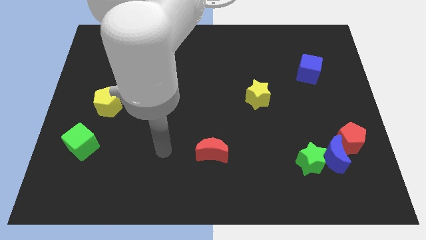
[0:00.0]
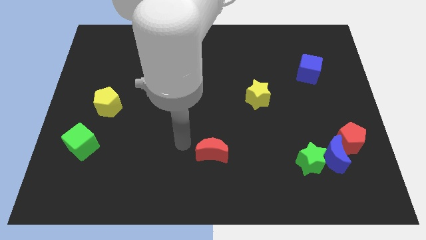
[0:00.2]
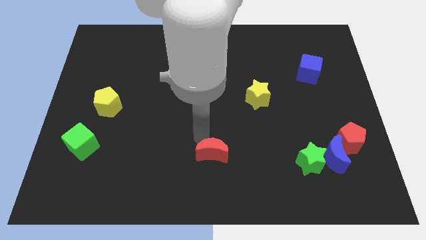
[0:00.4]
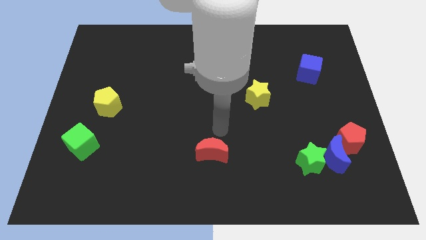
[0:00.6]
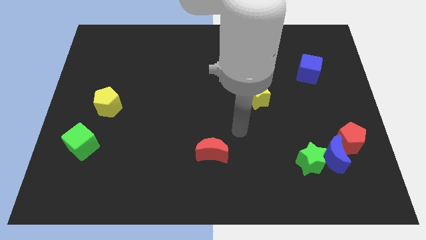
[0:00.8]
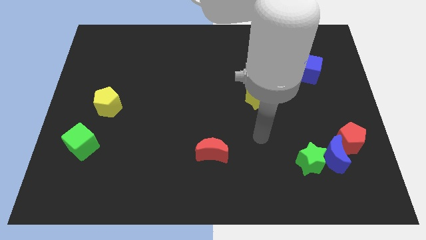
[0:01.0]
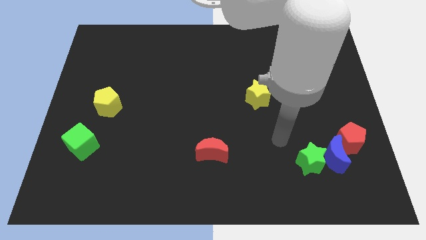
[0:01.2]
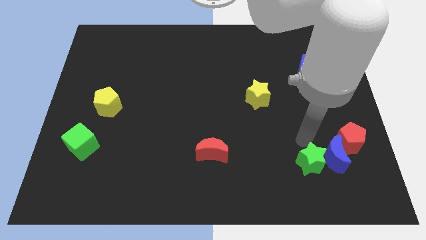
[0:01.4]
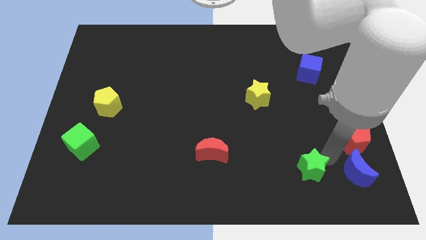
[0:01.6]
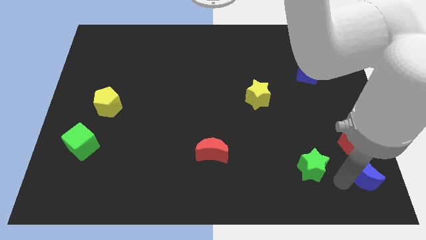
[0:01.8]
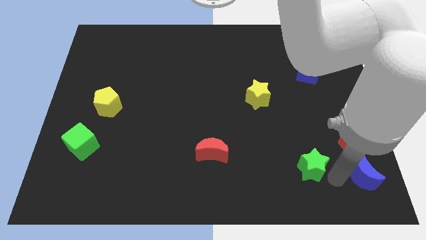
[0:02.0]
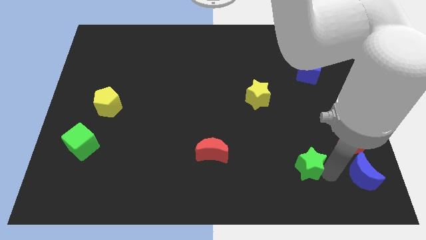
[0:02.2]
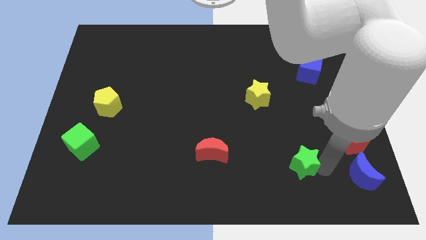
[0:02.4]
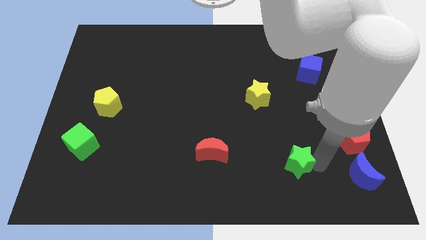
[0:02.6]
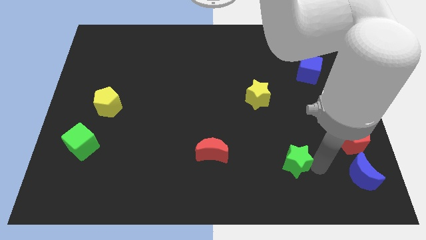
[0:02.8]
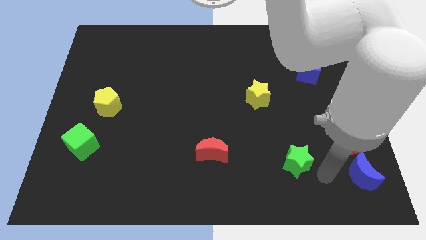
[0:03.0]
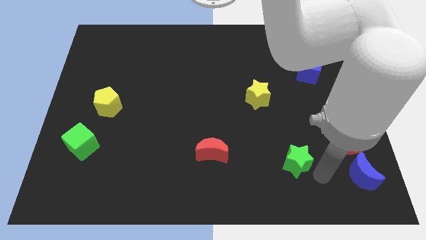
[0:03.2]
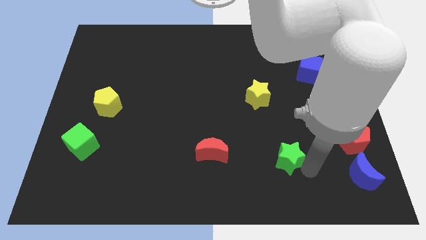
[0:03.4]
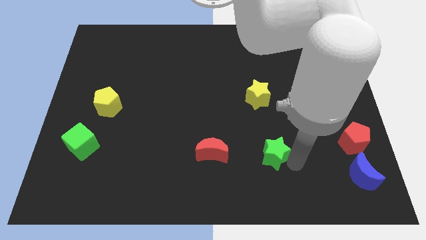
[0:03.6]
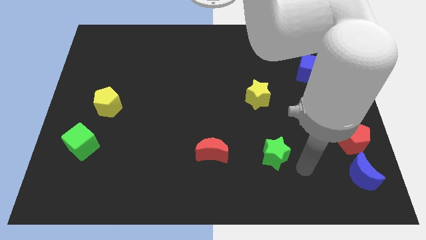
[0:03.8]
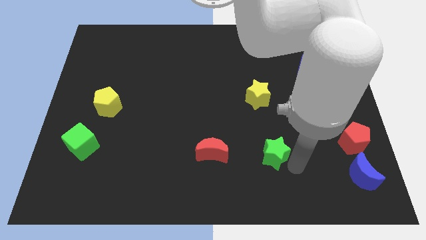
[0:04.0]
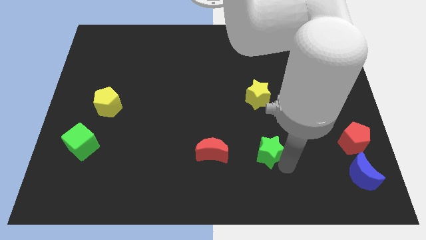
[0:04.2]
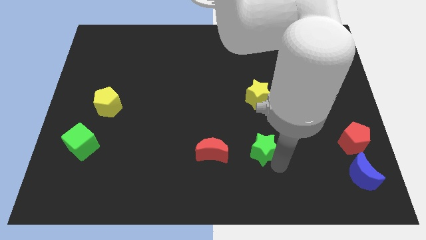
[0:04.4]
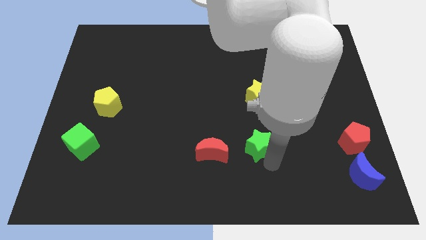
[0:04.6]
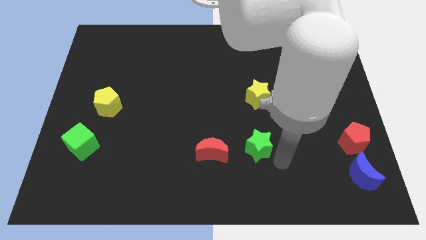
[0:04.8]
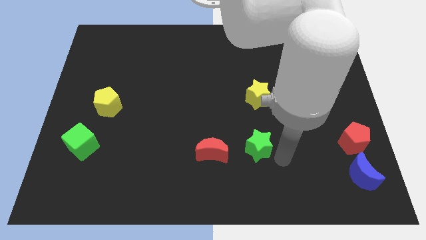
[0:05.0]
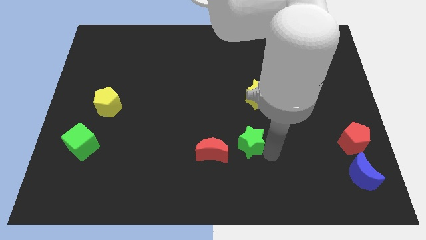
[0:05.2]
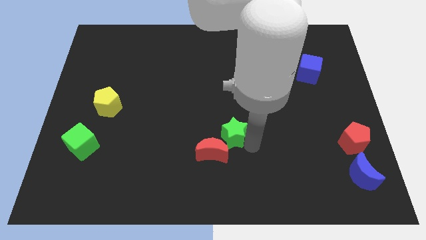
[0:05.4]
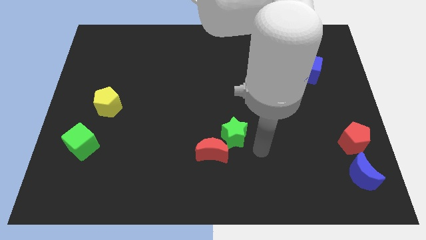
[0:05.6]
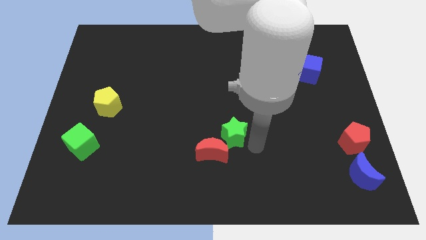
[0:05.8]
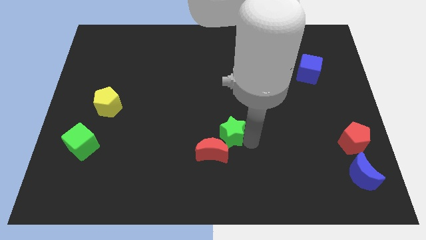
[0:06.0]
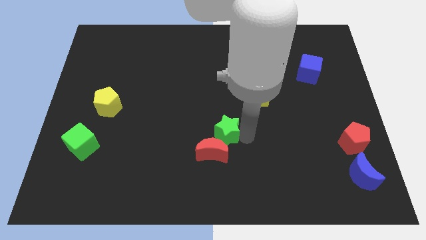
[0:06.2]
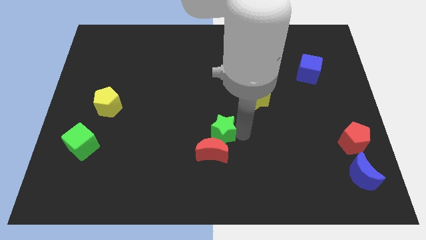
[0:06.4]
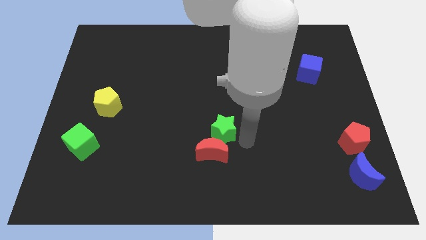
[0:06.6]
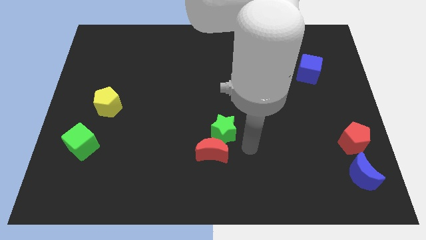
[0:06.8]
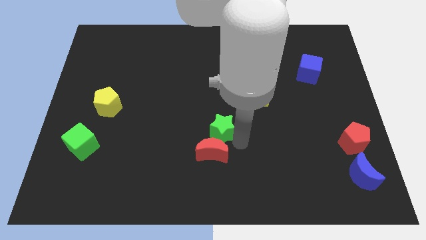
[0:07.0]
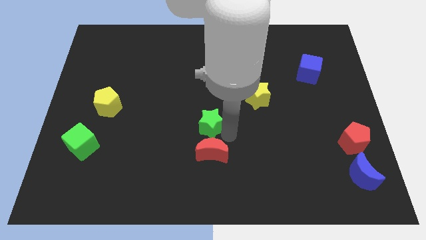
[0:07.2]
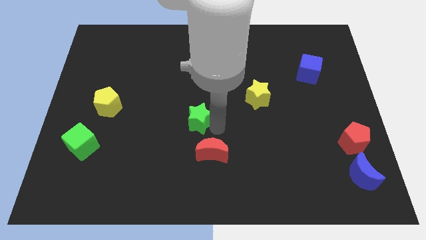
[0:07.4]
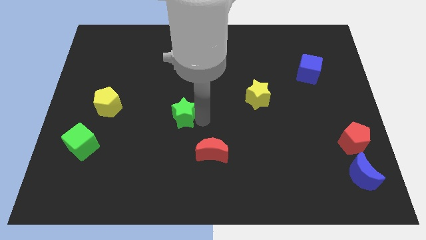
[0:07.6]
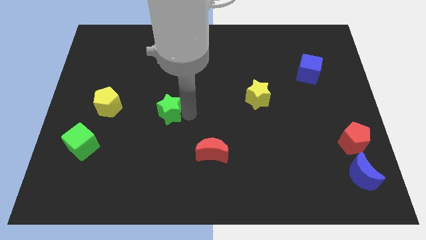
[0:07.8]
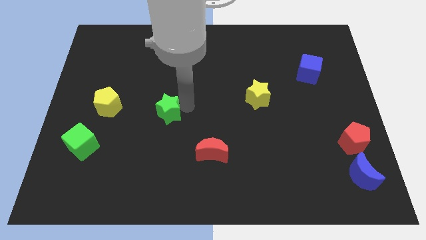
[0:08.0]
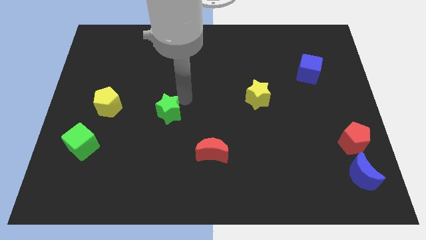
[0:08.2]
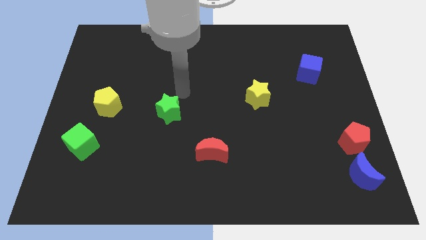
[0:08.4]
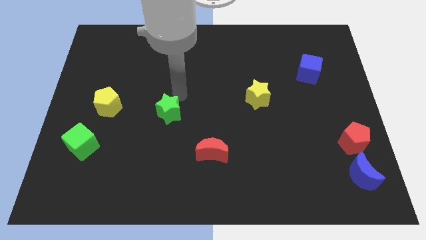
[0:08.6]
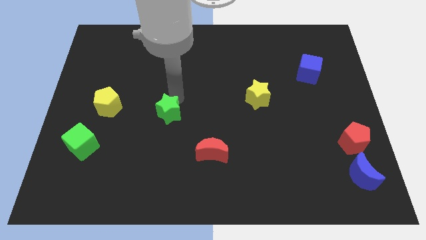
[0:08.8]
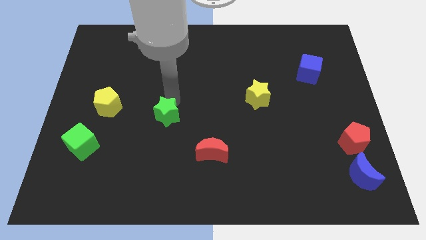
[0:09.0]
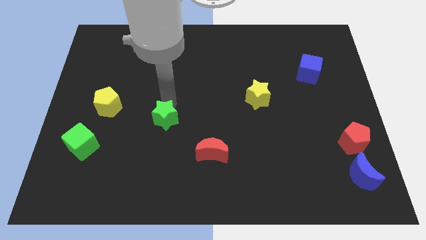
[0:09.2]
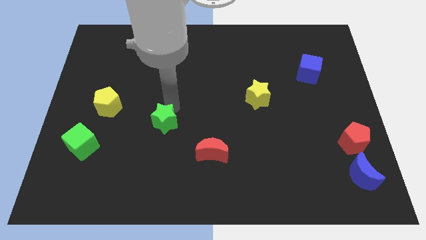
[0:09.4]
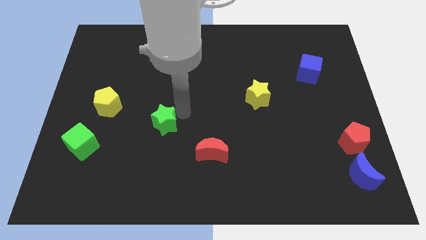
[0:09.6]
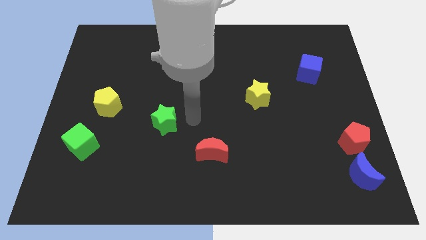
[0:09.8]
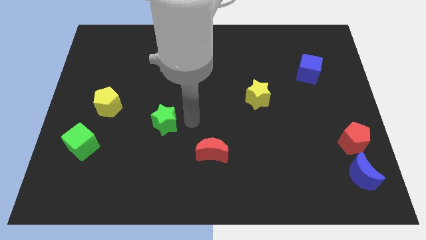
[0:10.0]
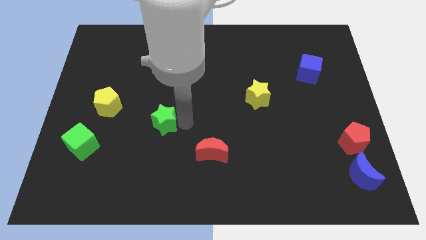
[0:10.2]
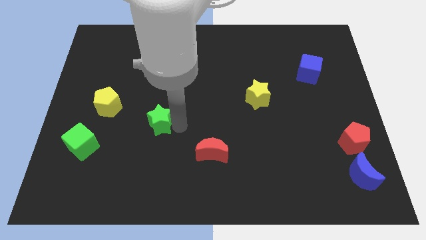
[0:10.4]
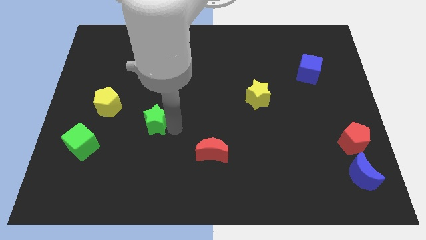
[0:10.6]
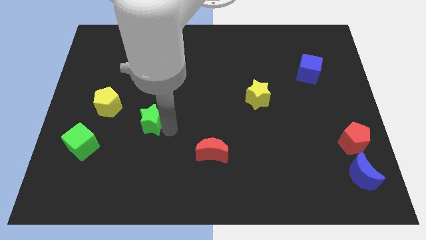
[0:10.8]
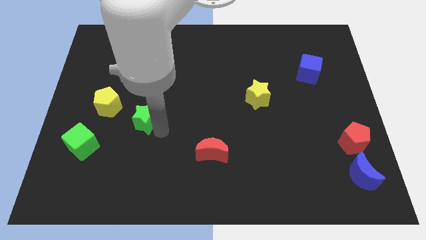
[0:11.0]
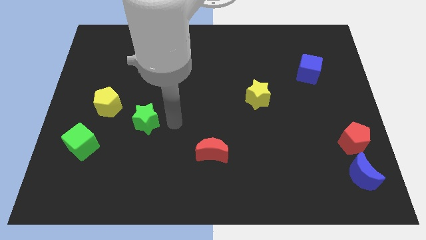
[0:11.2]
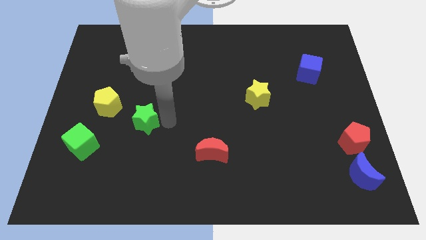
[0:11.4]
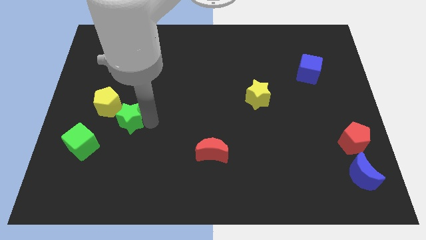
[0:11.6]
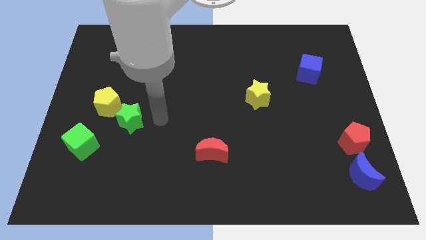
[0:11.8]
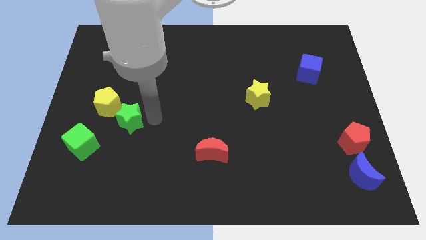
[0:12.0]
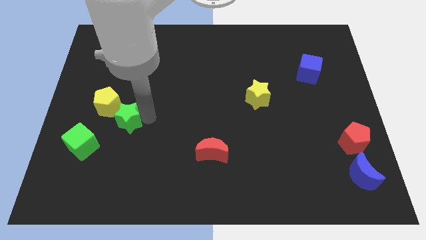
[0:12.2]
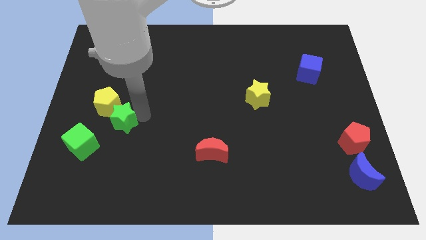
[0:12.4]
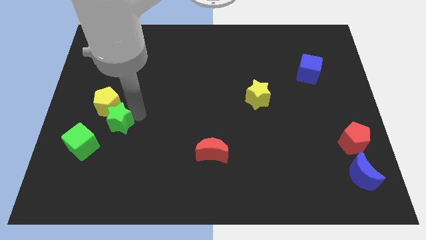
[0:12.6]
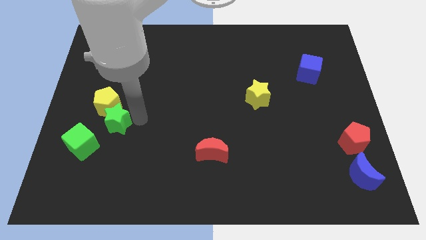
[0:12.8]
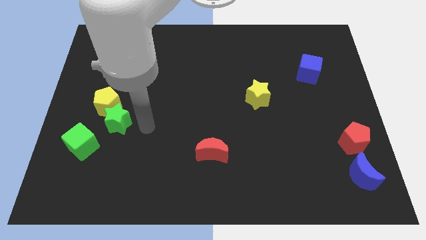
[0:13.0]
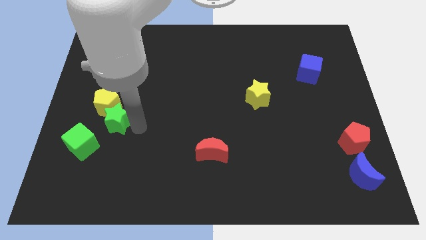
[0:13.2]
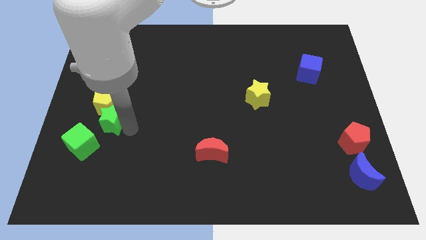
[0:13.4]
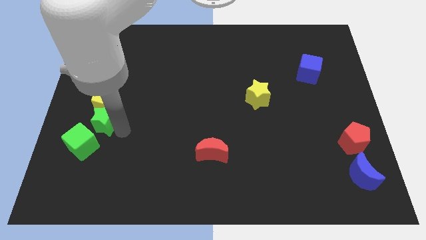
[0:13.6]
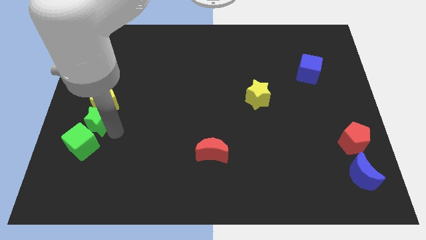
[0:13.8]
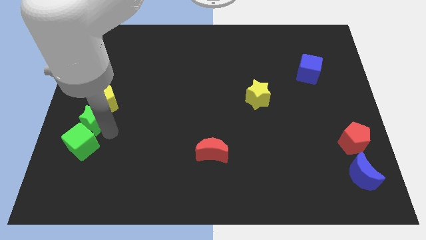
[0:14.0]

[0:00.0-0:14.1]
put the green star to the left side of the board
